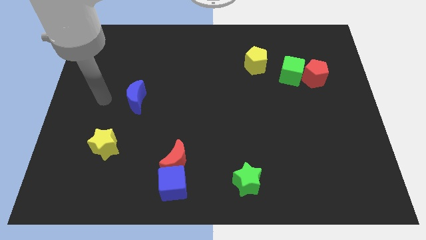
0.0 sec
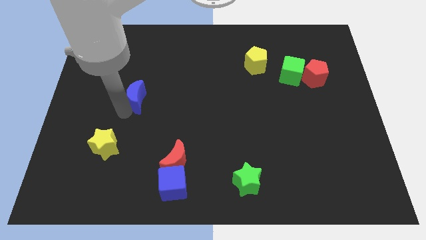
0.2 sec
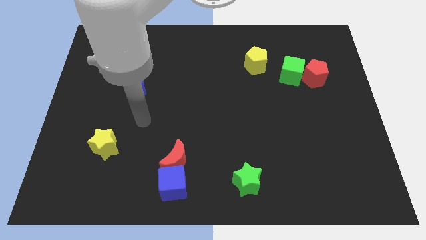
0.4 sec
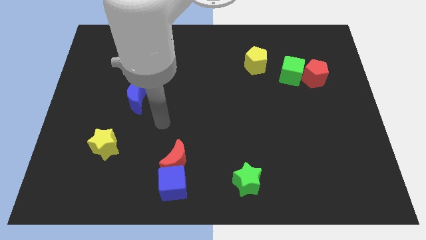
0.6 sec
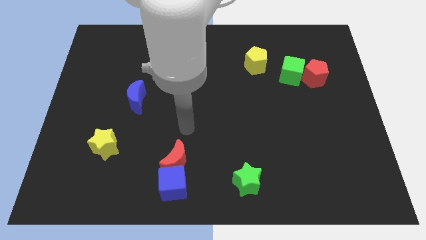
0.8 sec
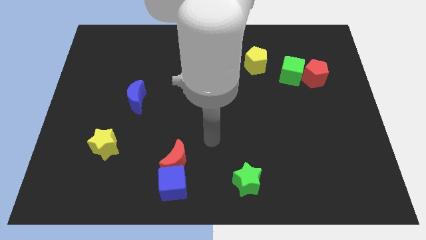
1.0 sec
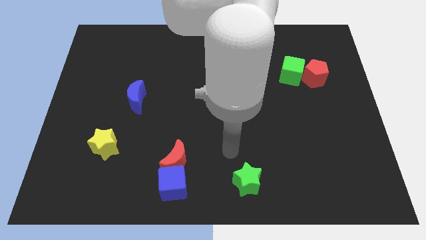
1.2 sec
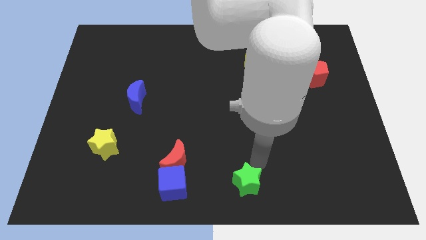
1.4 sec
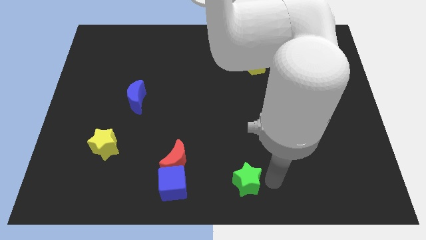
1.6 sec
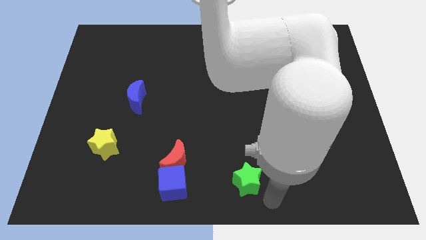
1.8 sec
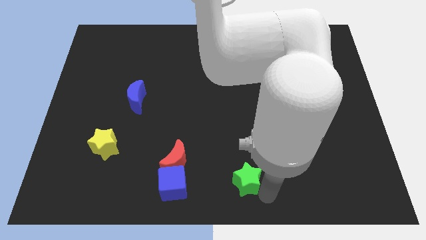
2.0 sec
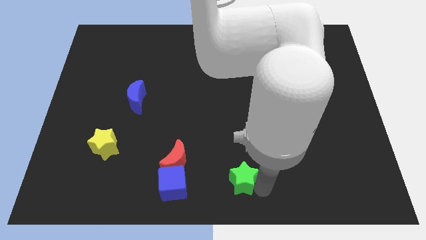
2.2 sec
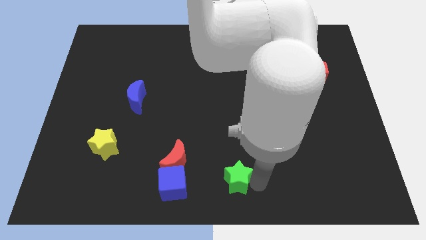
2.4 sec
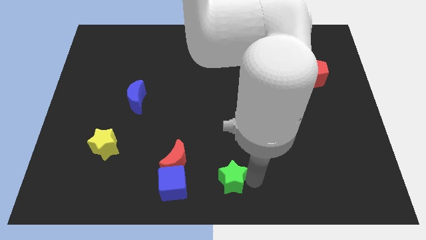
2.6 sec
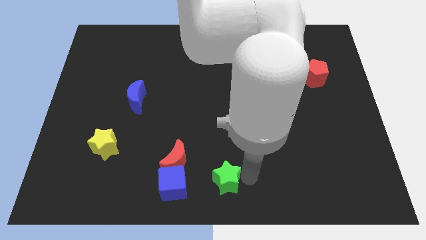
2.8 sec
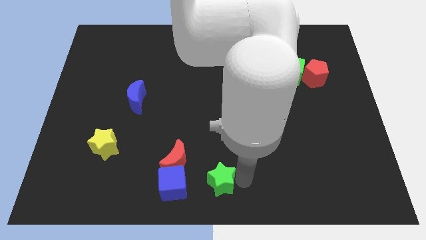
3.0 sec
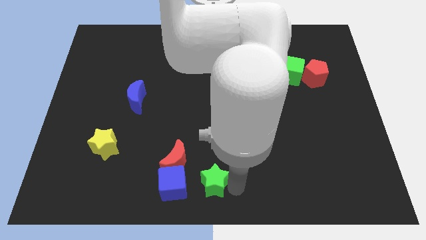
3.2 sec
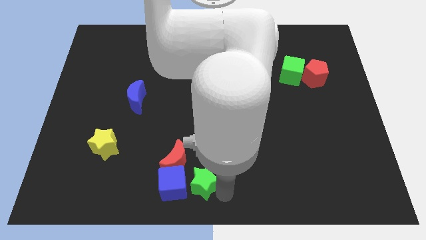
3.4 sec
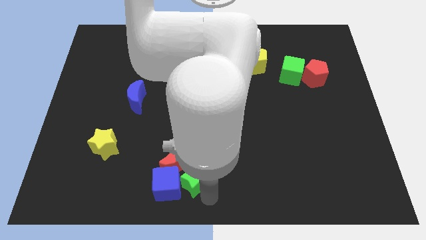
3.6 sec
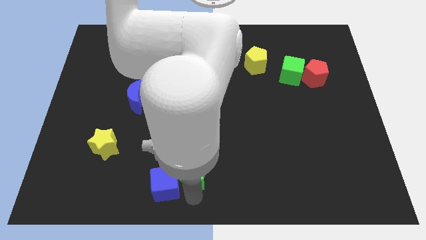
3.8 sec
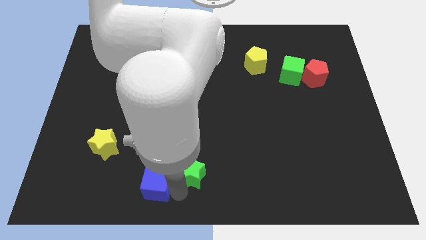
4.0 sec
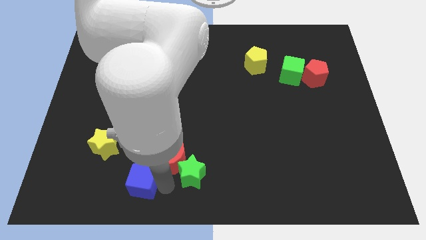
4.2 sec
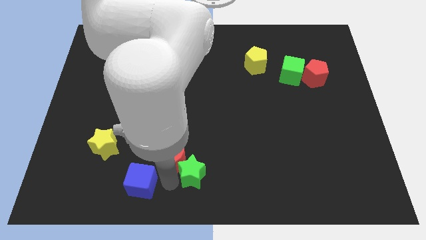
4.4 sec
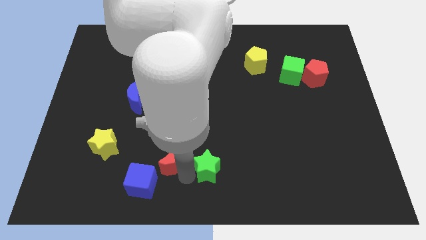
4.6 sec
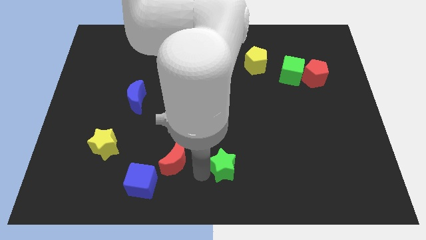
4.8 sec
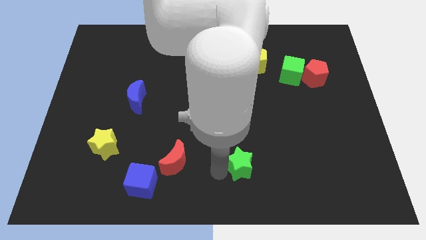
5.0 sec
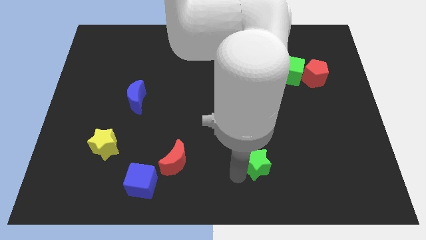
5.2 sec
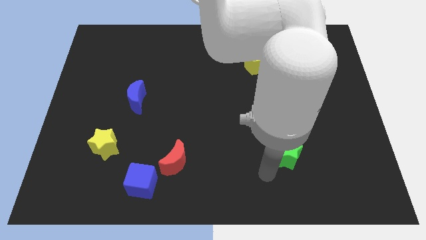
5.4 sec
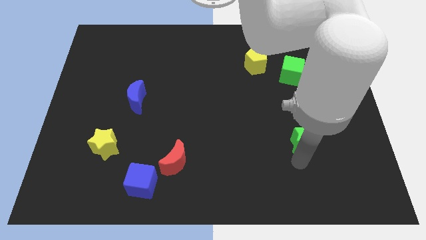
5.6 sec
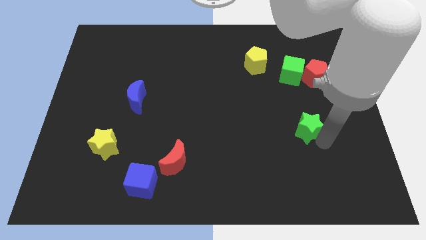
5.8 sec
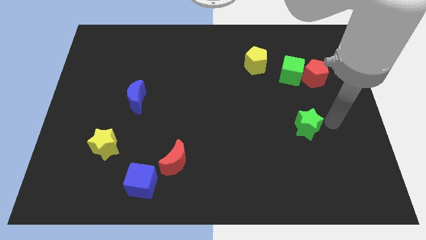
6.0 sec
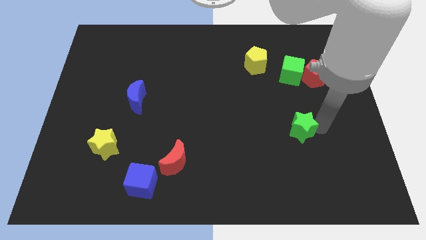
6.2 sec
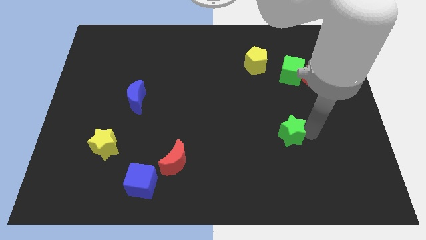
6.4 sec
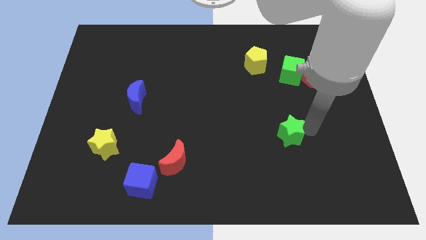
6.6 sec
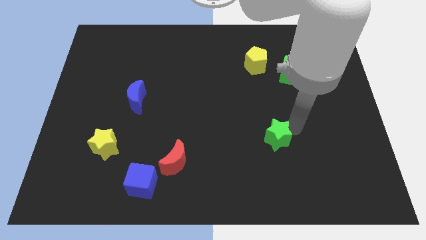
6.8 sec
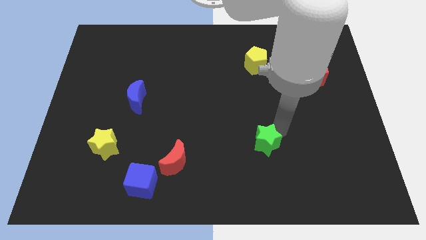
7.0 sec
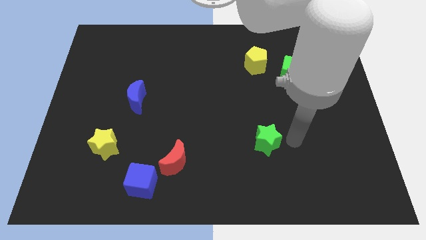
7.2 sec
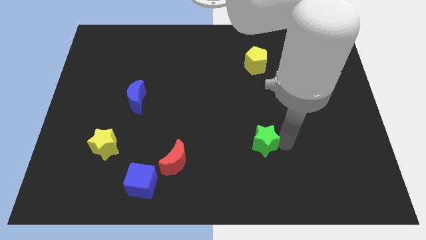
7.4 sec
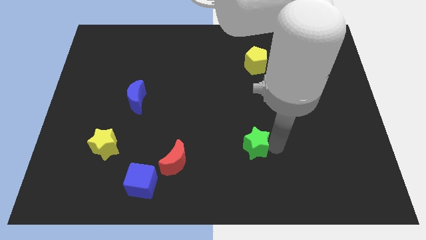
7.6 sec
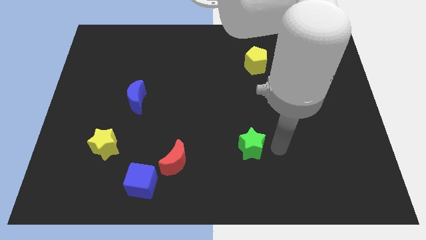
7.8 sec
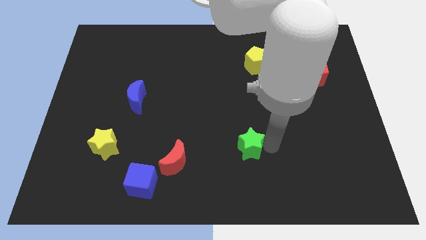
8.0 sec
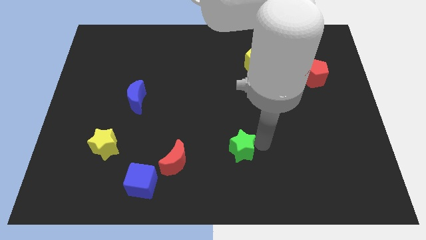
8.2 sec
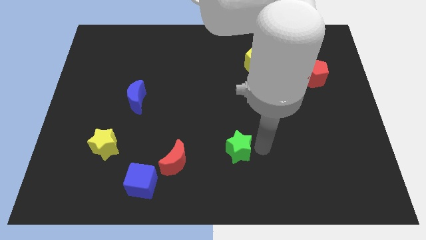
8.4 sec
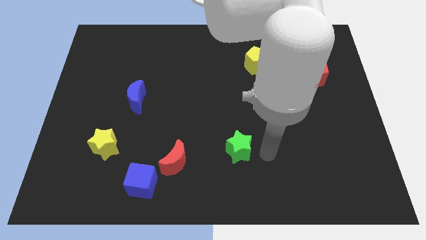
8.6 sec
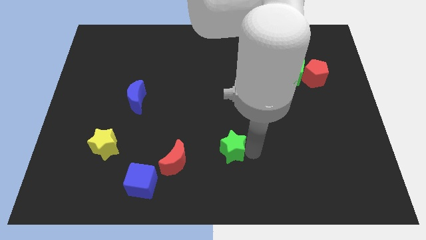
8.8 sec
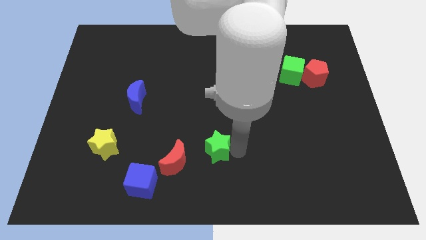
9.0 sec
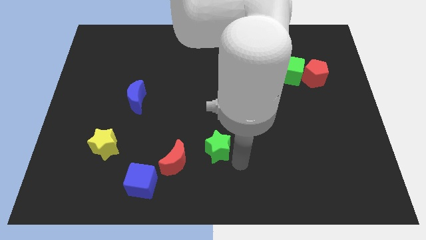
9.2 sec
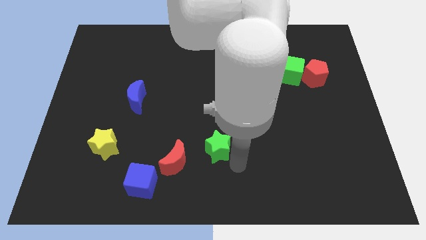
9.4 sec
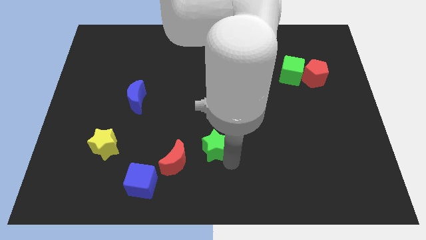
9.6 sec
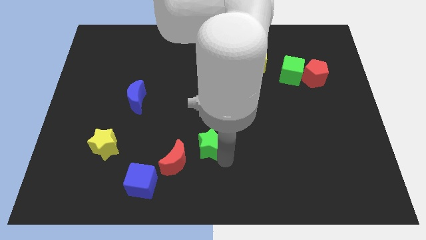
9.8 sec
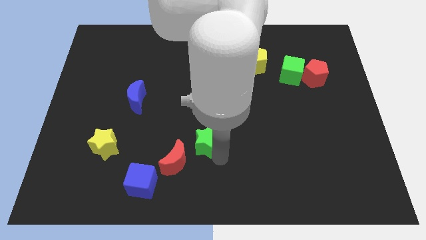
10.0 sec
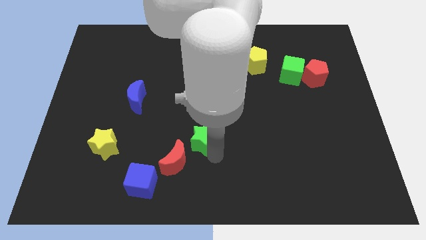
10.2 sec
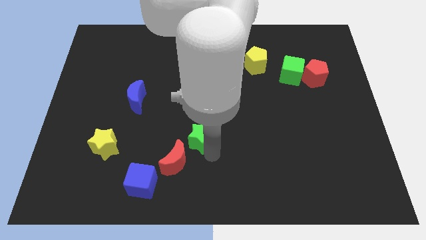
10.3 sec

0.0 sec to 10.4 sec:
slide the green star above the red moon

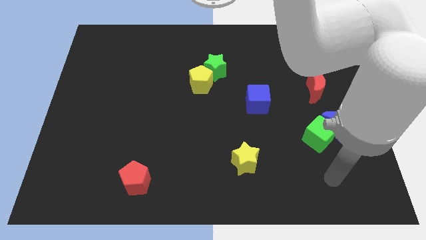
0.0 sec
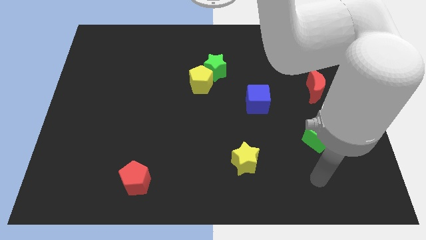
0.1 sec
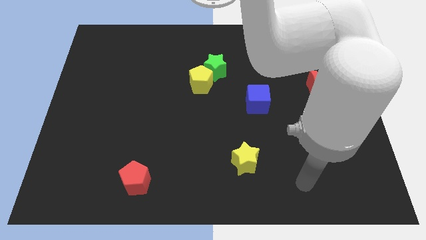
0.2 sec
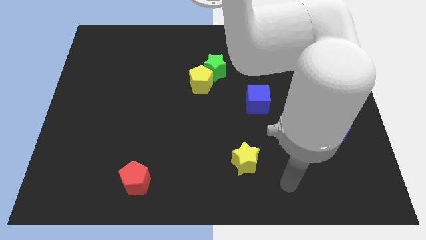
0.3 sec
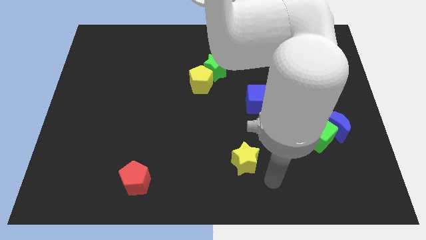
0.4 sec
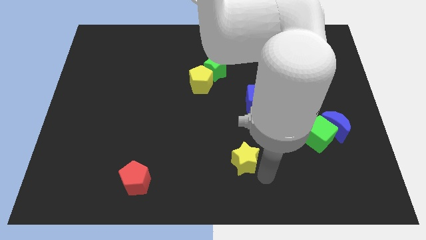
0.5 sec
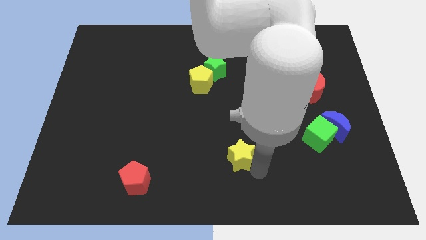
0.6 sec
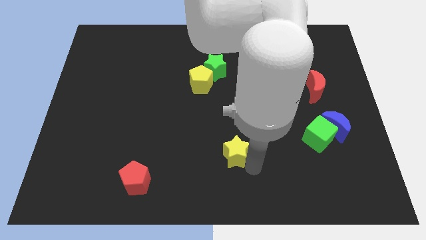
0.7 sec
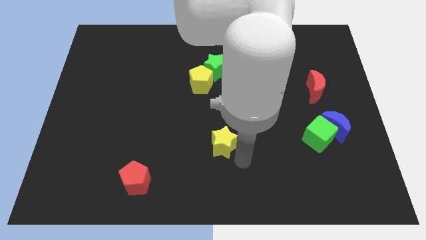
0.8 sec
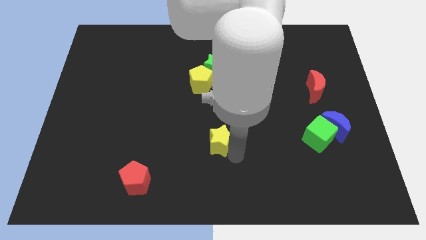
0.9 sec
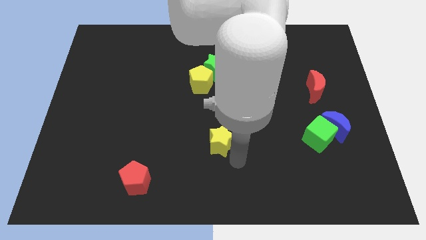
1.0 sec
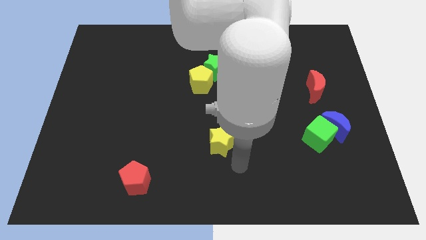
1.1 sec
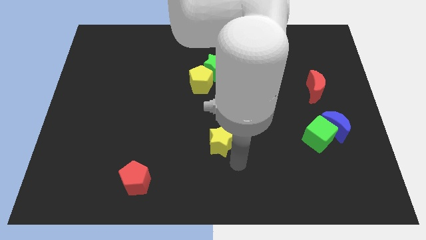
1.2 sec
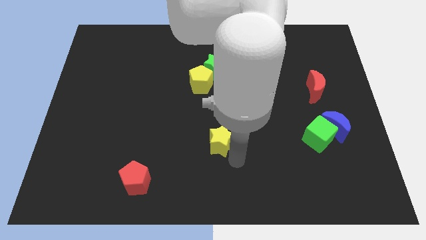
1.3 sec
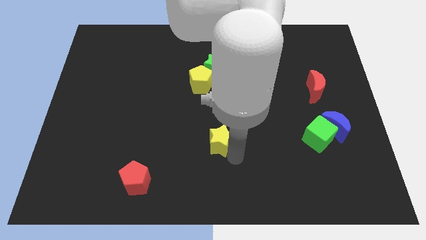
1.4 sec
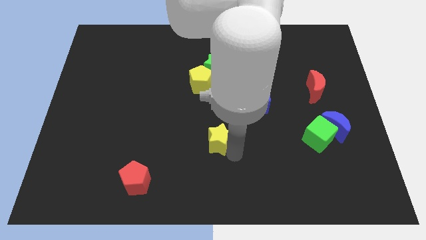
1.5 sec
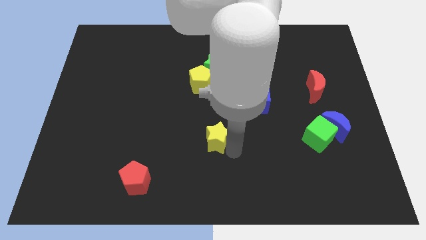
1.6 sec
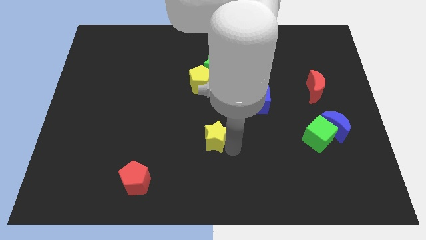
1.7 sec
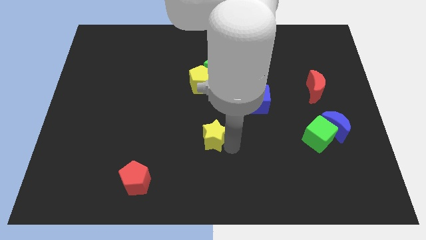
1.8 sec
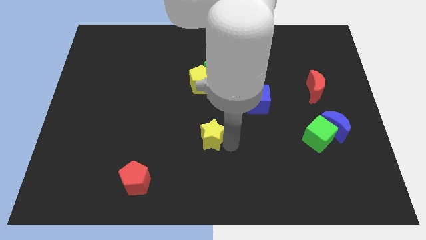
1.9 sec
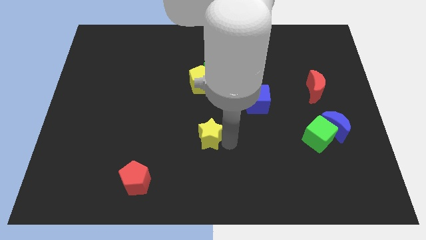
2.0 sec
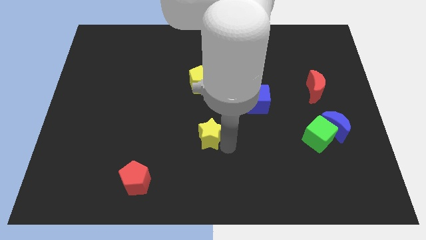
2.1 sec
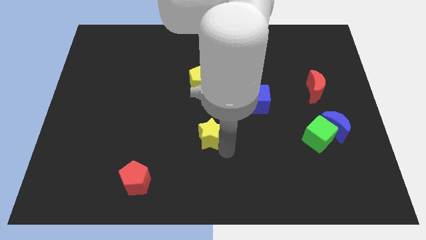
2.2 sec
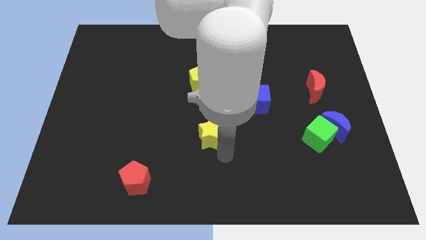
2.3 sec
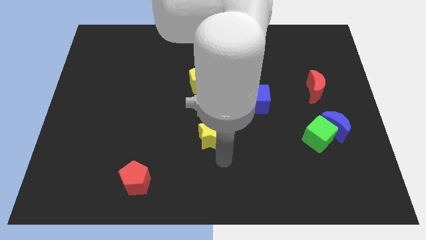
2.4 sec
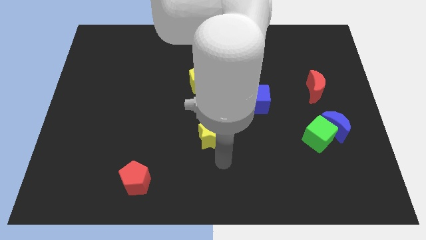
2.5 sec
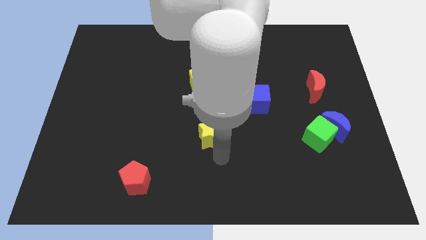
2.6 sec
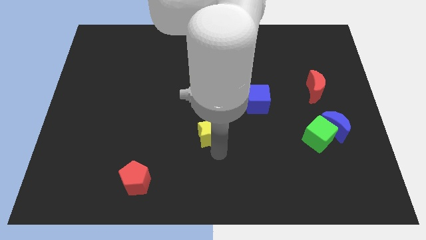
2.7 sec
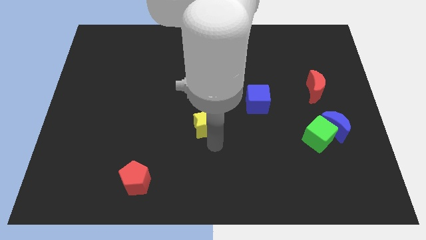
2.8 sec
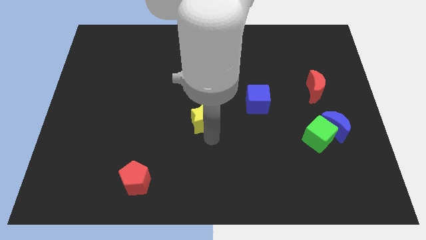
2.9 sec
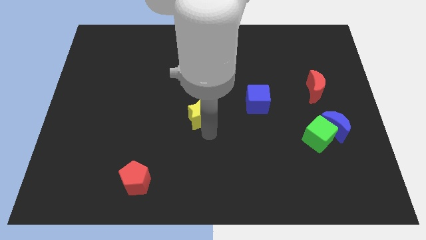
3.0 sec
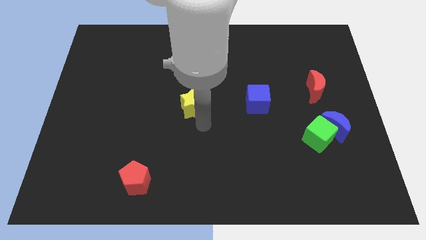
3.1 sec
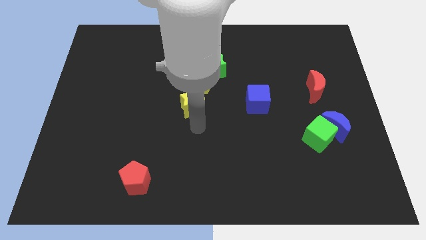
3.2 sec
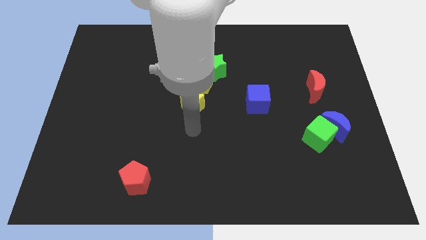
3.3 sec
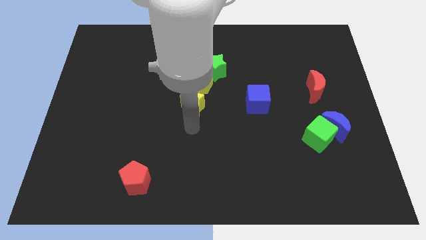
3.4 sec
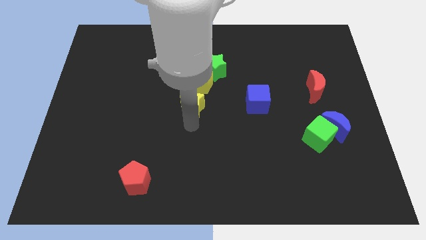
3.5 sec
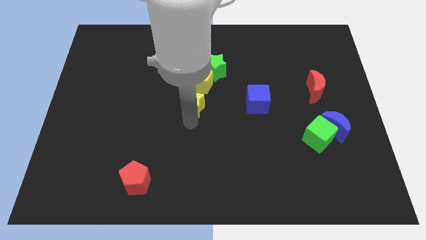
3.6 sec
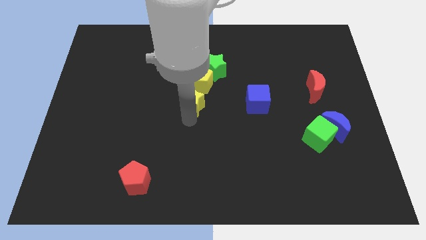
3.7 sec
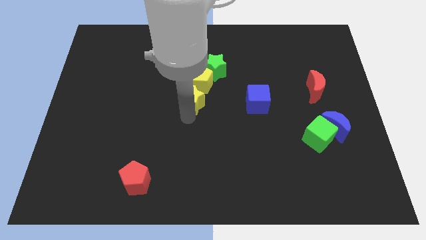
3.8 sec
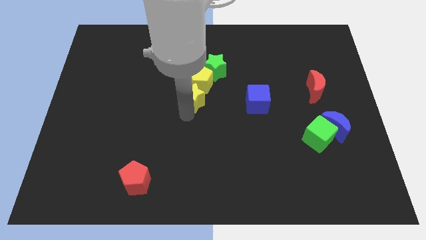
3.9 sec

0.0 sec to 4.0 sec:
push the yellow star to the bottom left side of the green star
